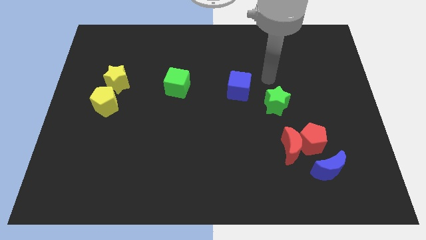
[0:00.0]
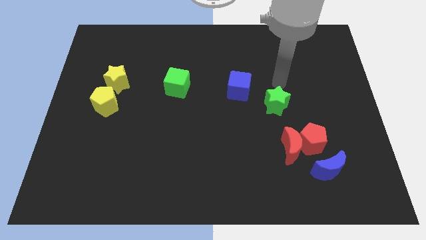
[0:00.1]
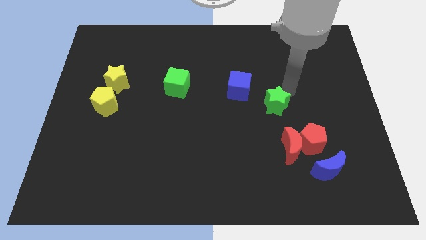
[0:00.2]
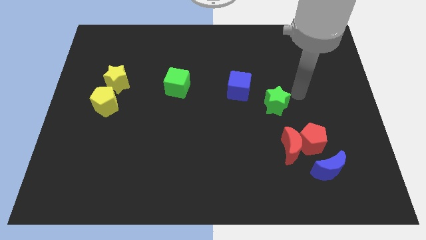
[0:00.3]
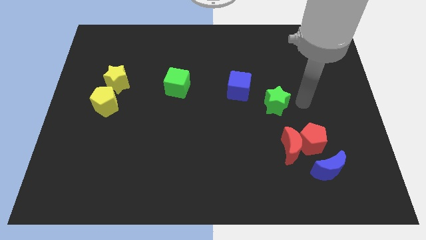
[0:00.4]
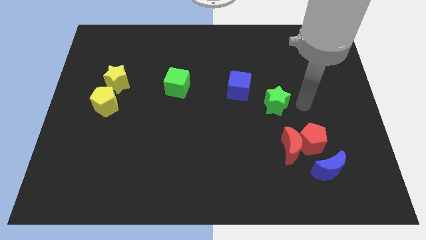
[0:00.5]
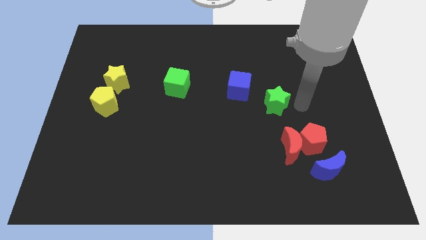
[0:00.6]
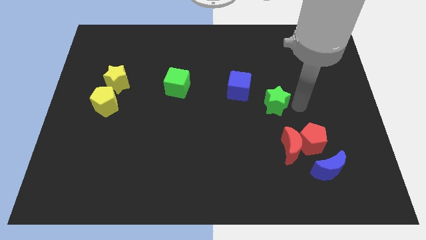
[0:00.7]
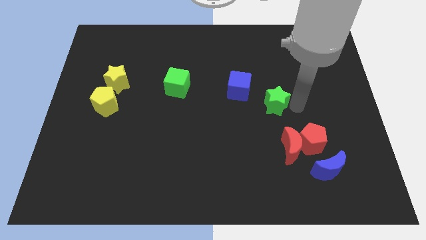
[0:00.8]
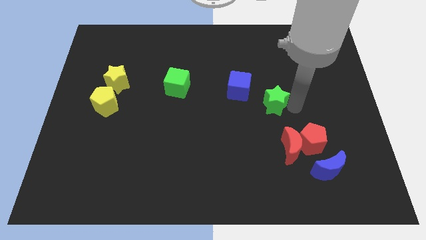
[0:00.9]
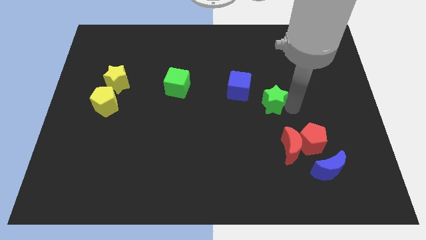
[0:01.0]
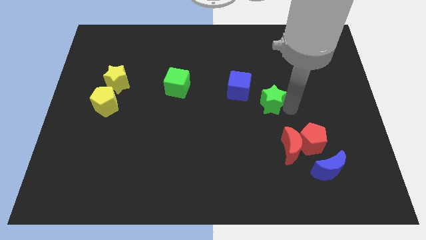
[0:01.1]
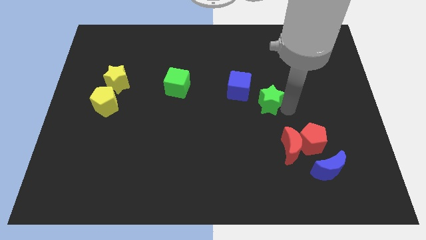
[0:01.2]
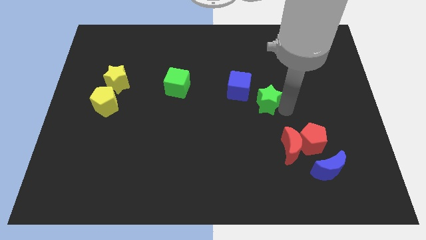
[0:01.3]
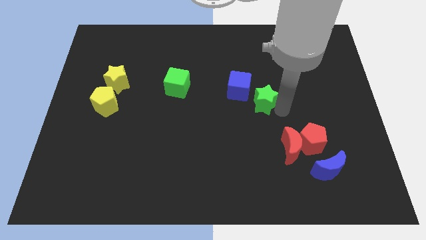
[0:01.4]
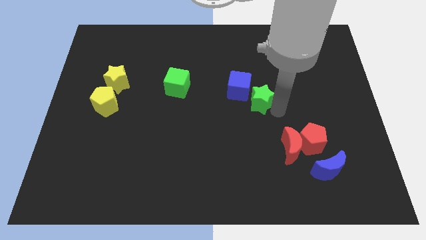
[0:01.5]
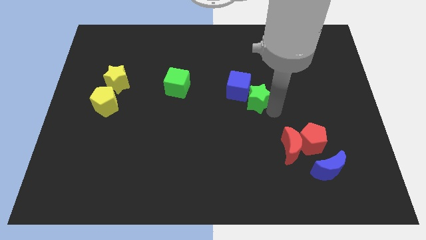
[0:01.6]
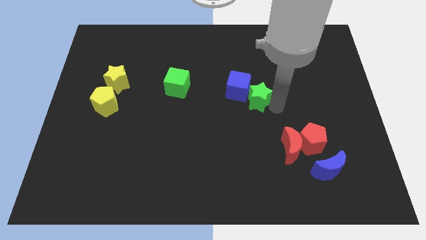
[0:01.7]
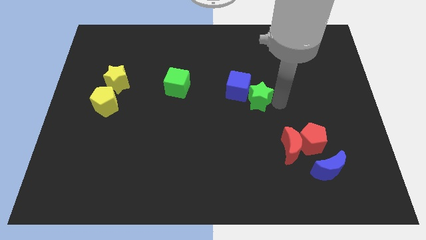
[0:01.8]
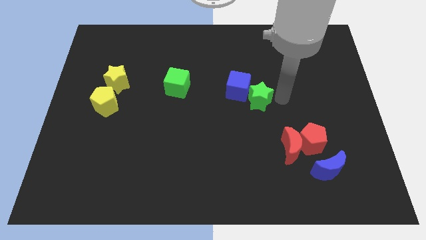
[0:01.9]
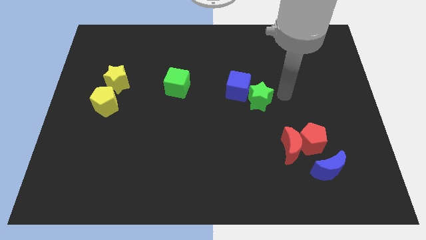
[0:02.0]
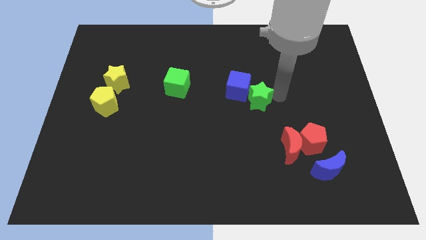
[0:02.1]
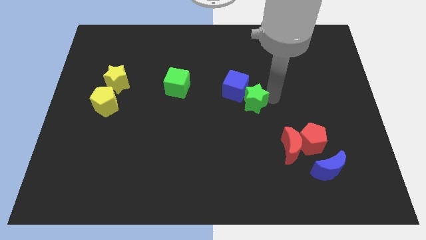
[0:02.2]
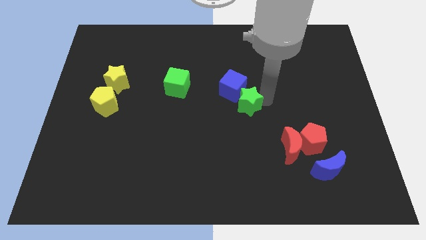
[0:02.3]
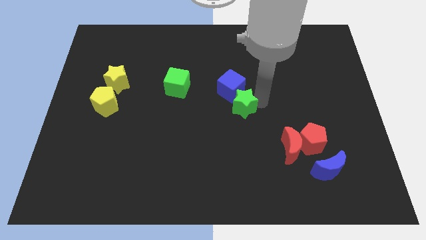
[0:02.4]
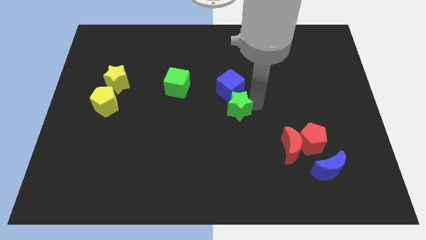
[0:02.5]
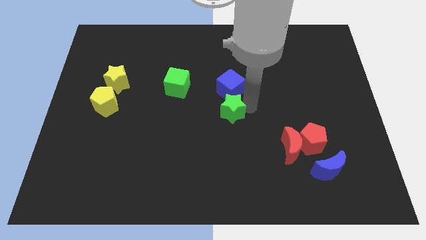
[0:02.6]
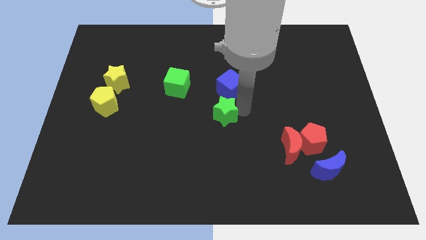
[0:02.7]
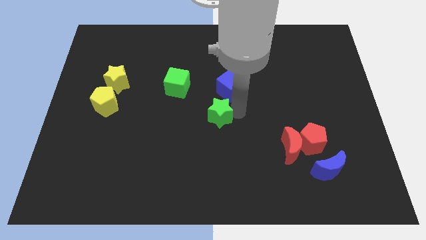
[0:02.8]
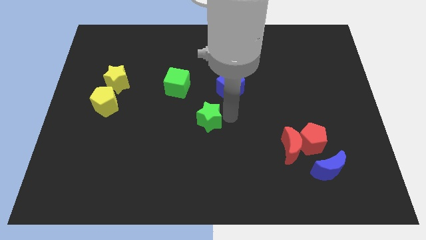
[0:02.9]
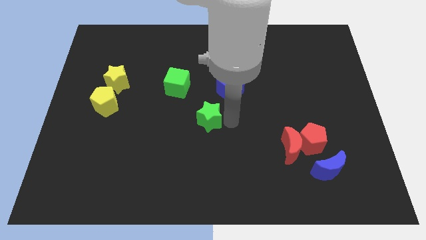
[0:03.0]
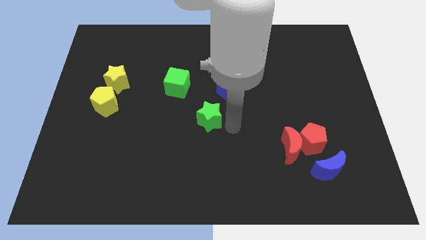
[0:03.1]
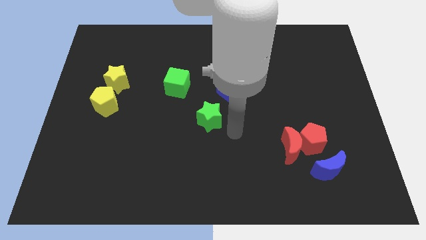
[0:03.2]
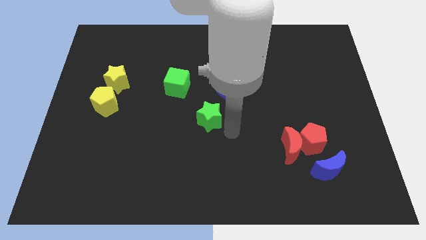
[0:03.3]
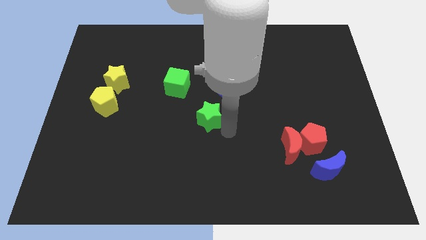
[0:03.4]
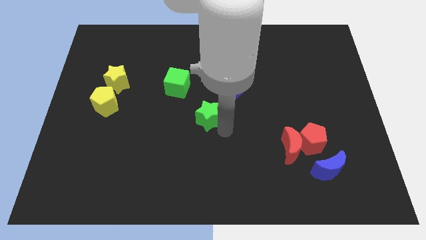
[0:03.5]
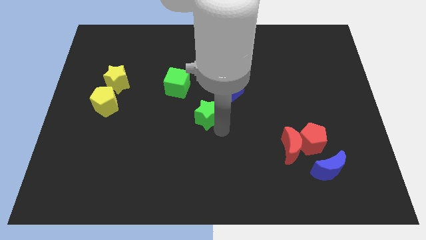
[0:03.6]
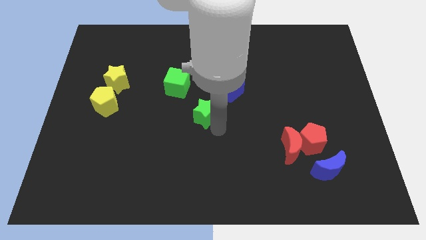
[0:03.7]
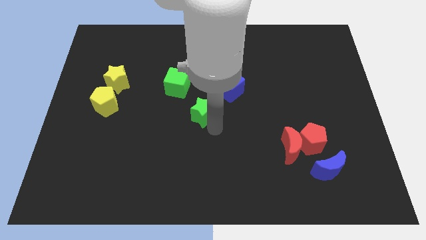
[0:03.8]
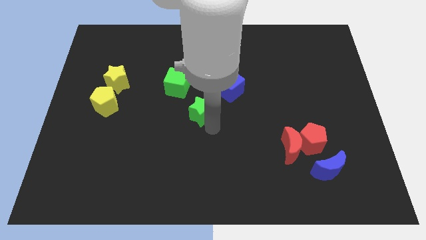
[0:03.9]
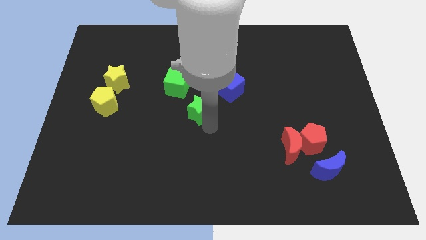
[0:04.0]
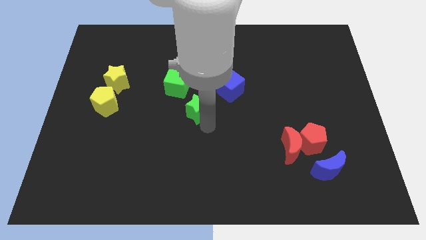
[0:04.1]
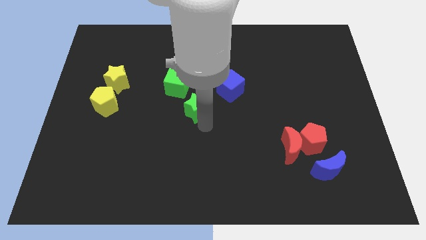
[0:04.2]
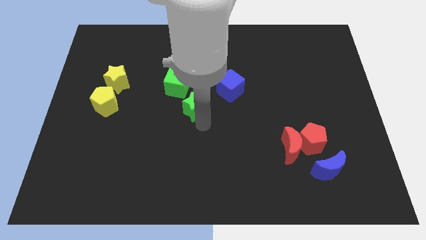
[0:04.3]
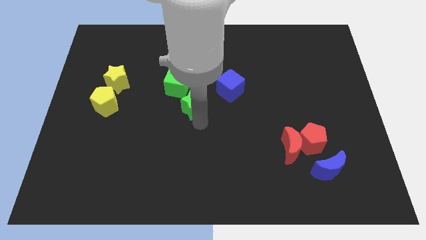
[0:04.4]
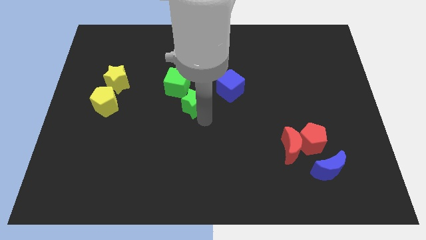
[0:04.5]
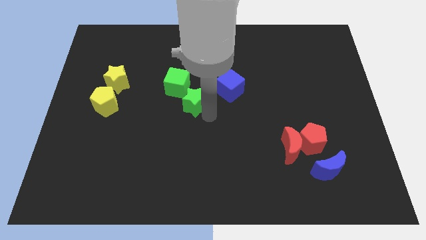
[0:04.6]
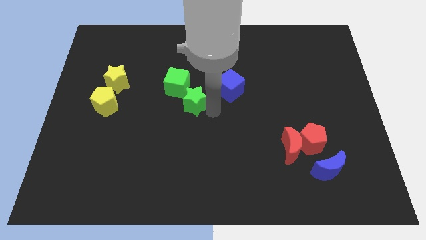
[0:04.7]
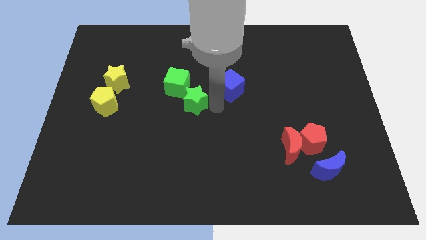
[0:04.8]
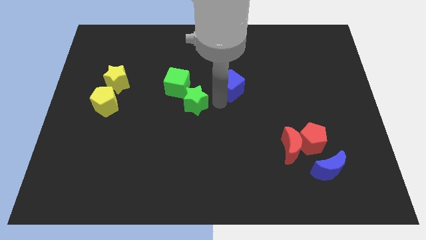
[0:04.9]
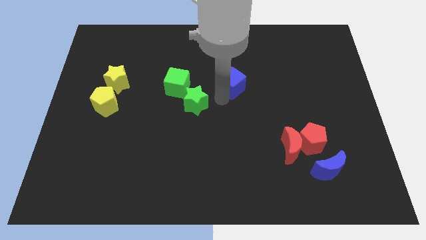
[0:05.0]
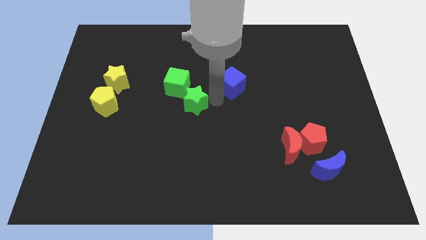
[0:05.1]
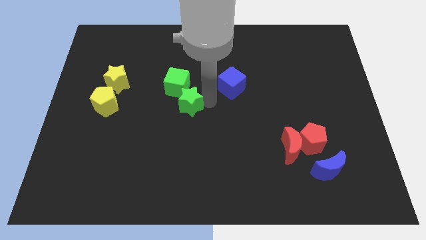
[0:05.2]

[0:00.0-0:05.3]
slide the green star left

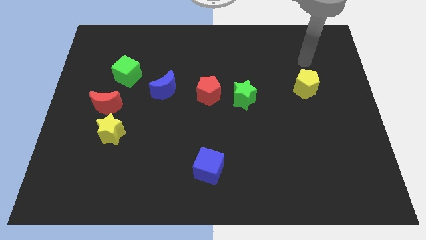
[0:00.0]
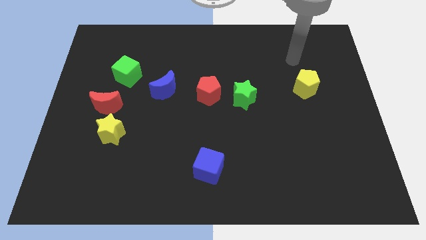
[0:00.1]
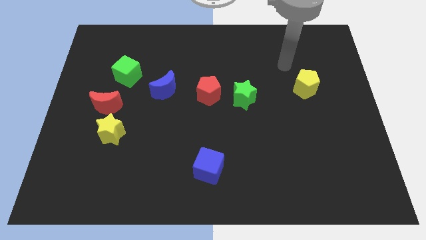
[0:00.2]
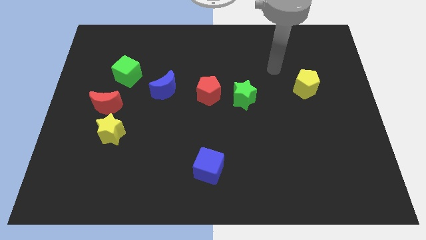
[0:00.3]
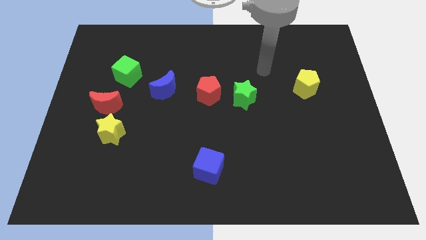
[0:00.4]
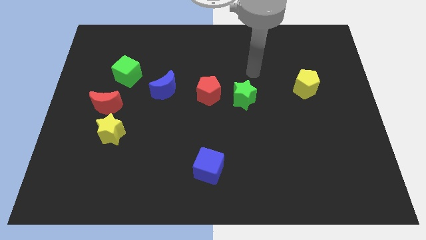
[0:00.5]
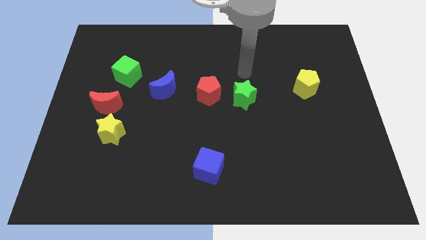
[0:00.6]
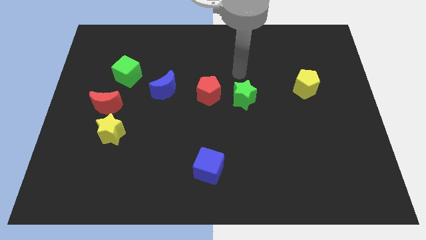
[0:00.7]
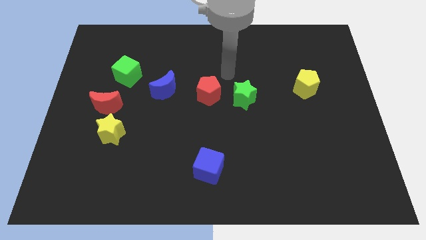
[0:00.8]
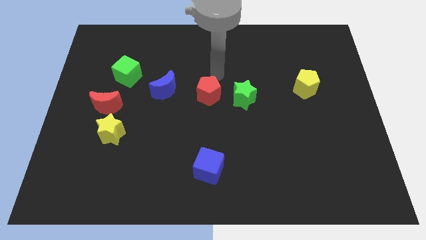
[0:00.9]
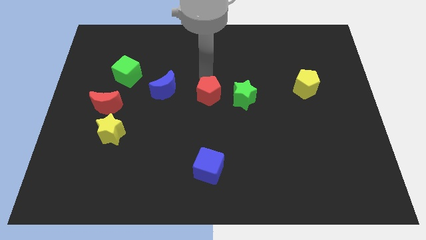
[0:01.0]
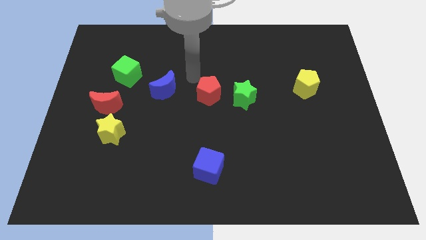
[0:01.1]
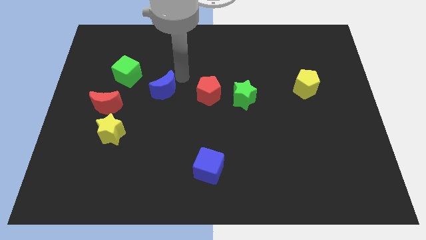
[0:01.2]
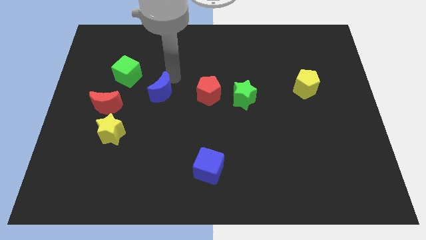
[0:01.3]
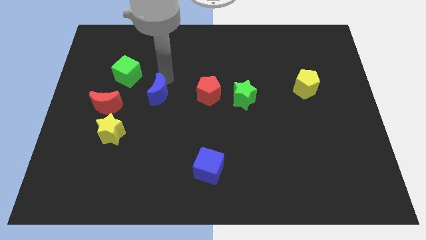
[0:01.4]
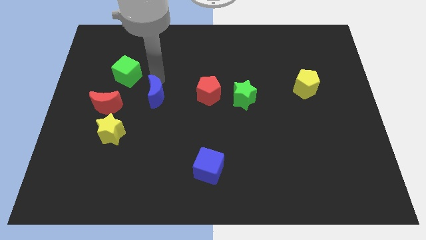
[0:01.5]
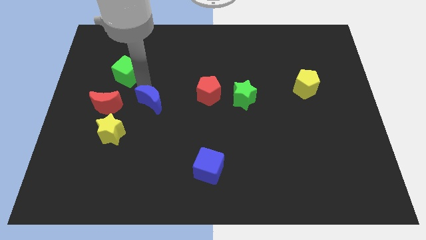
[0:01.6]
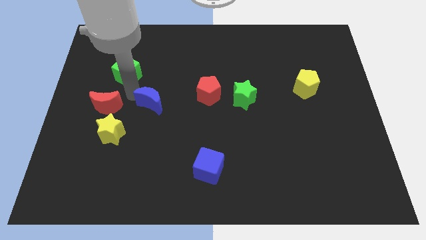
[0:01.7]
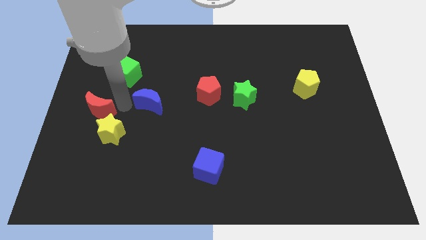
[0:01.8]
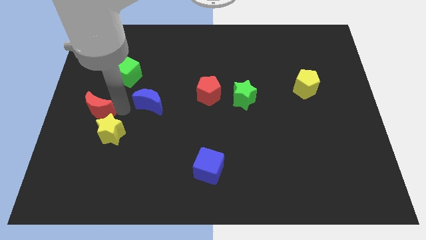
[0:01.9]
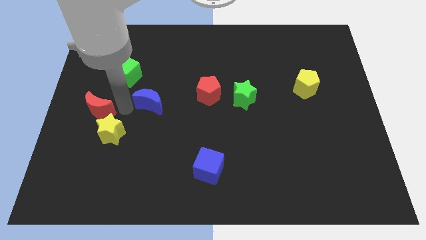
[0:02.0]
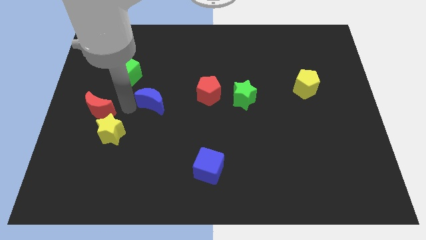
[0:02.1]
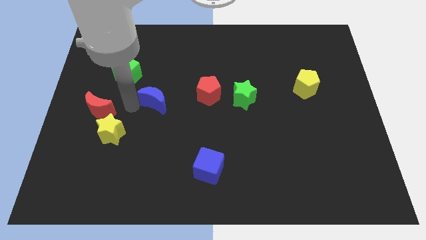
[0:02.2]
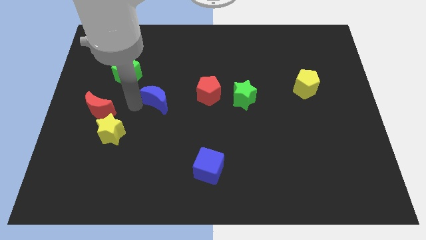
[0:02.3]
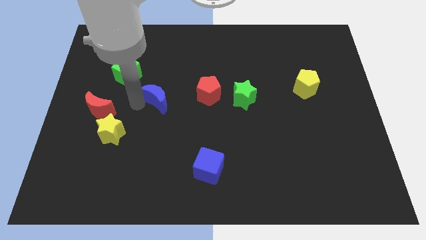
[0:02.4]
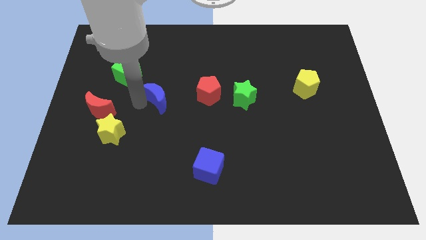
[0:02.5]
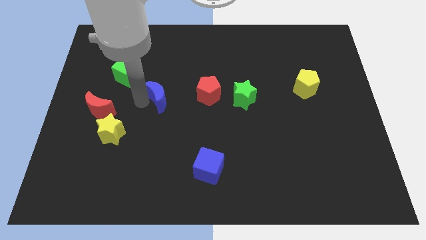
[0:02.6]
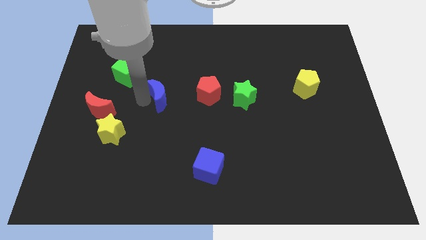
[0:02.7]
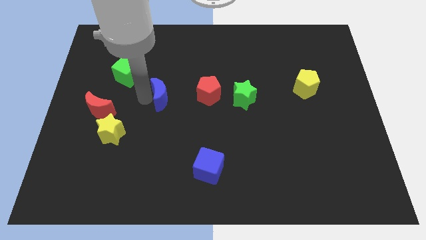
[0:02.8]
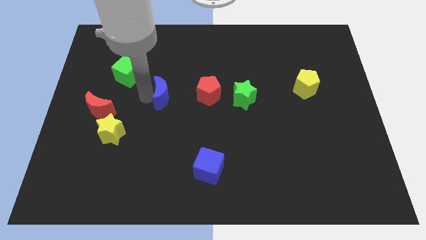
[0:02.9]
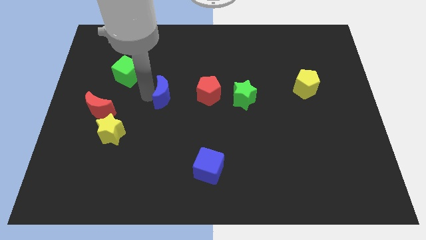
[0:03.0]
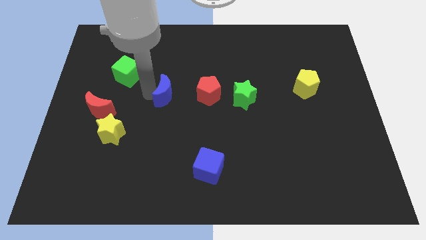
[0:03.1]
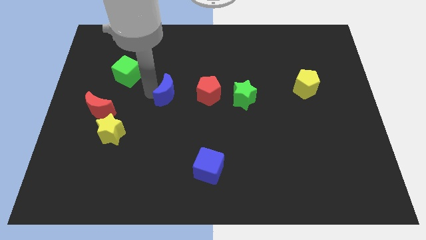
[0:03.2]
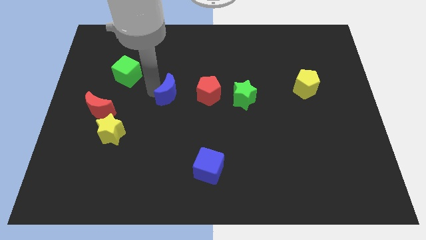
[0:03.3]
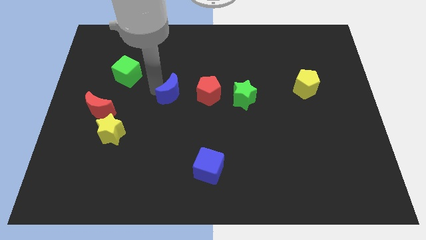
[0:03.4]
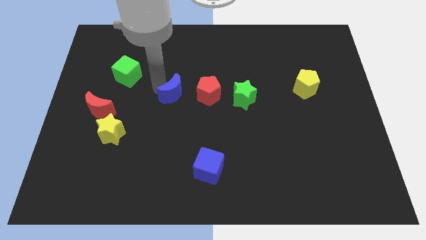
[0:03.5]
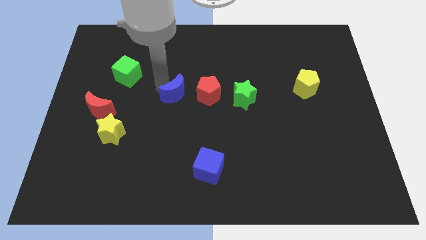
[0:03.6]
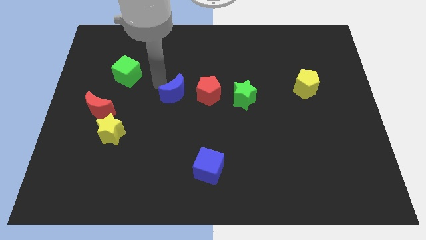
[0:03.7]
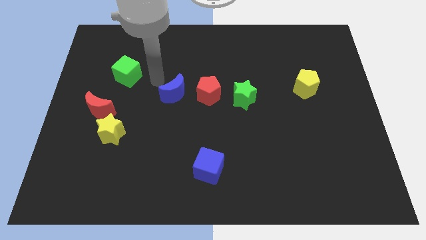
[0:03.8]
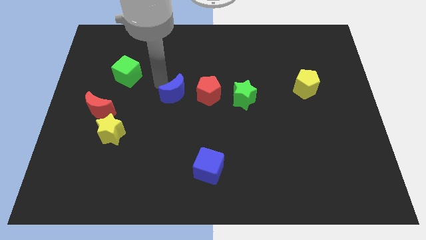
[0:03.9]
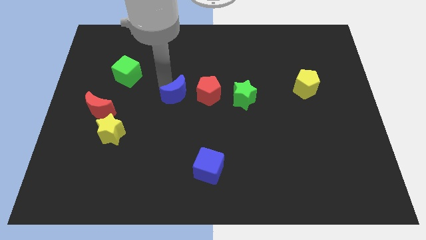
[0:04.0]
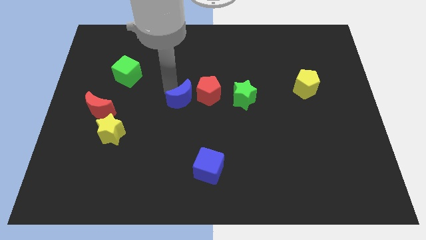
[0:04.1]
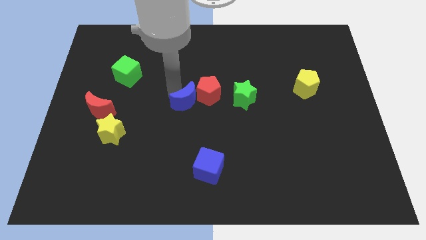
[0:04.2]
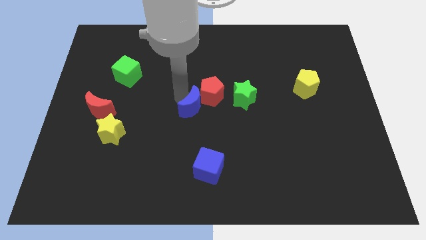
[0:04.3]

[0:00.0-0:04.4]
move the blue moon downwards and then right slightly
